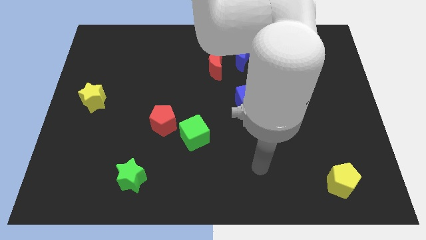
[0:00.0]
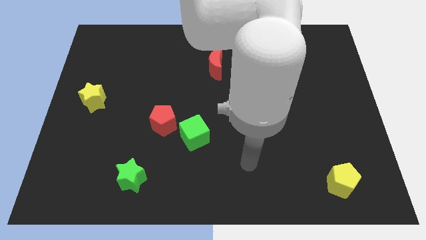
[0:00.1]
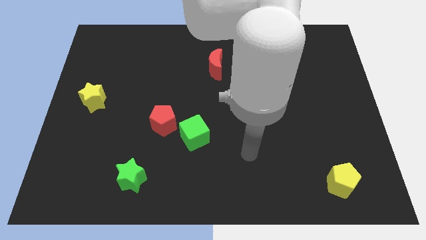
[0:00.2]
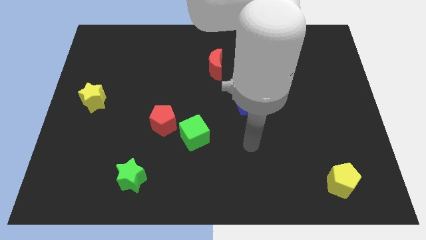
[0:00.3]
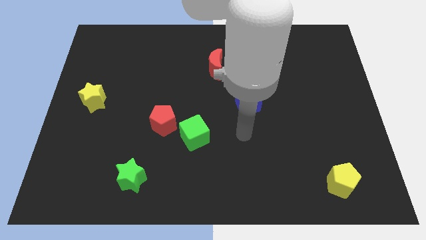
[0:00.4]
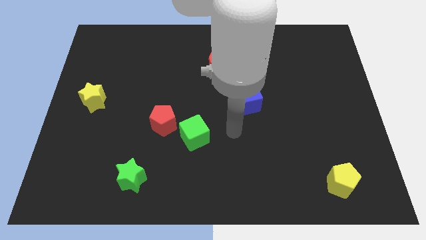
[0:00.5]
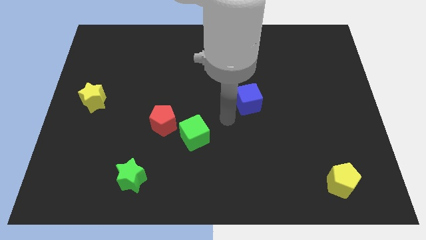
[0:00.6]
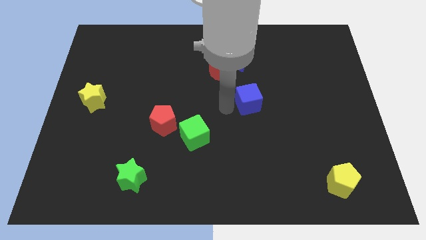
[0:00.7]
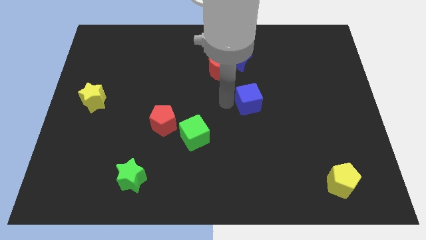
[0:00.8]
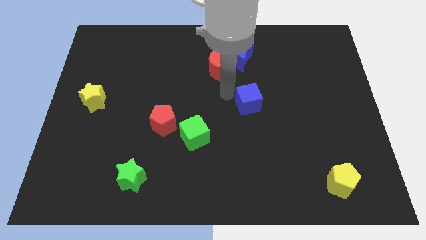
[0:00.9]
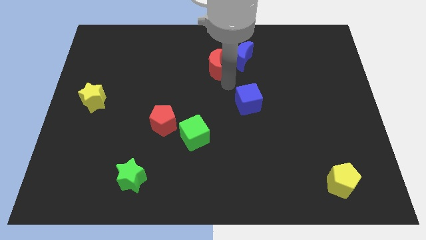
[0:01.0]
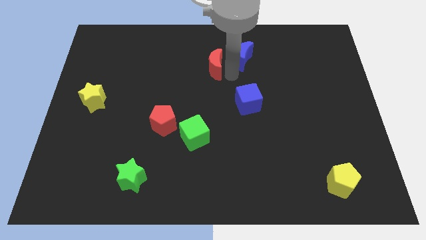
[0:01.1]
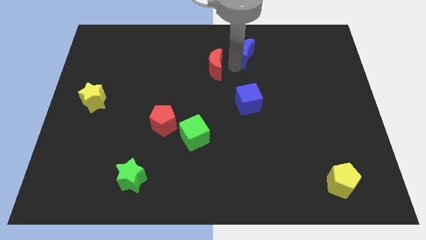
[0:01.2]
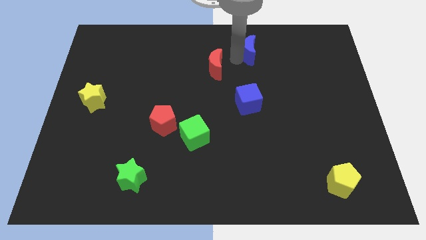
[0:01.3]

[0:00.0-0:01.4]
move the red moon away from the blue moon

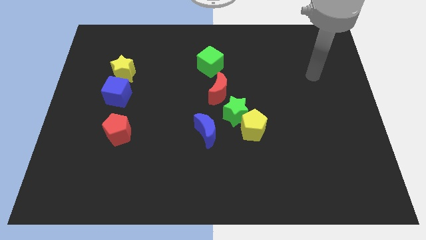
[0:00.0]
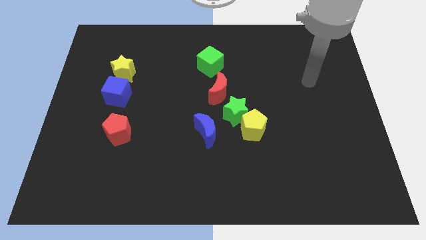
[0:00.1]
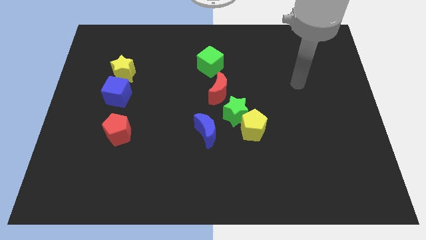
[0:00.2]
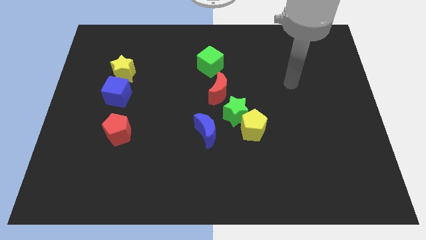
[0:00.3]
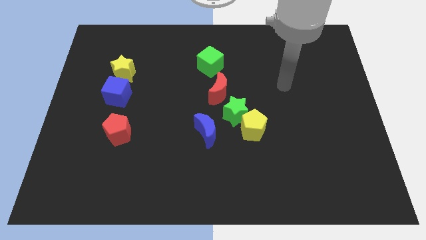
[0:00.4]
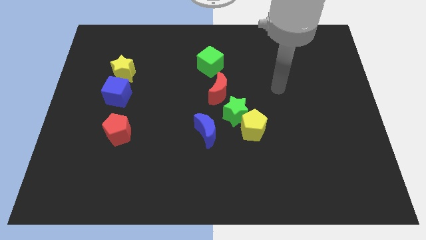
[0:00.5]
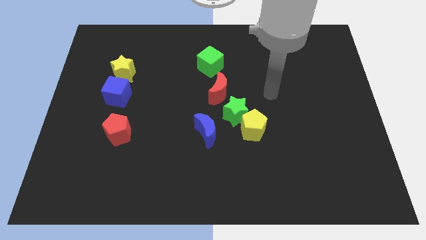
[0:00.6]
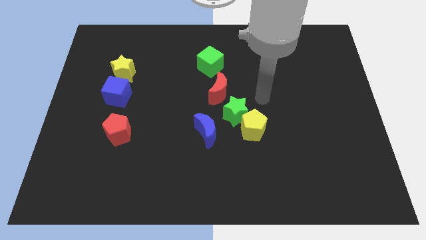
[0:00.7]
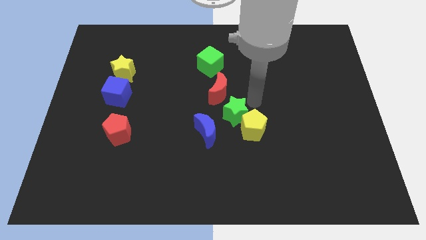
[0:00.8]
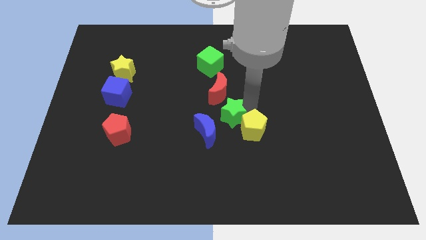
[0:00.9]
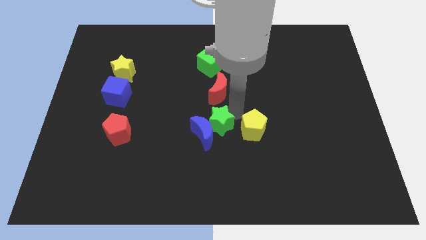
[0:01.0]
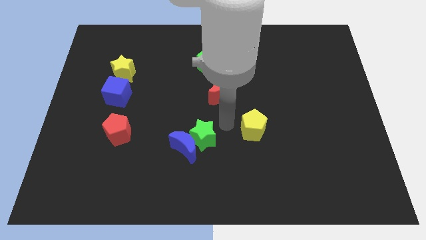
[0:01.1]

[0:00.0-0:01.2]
pull the yellow pentagon apart from the green star

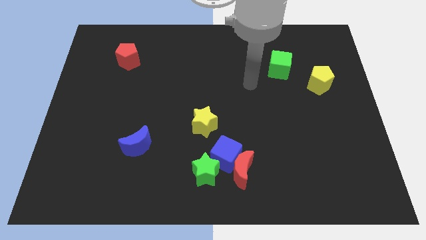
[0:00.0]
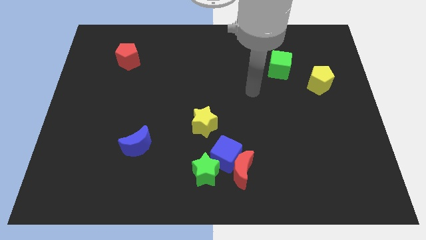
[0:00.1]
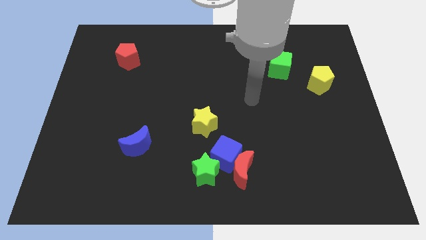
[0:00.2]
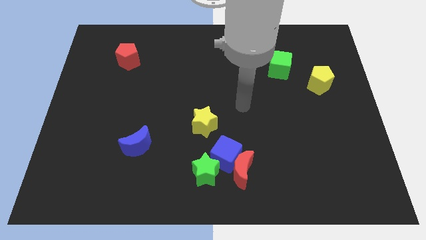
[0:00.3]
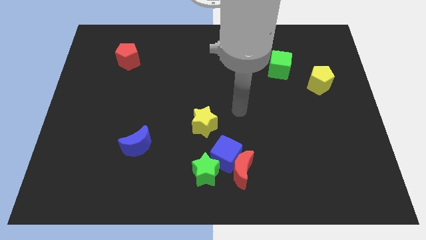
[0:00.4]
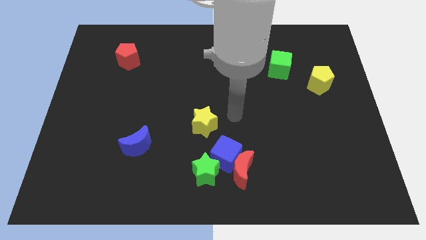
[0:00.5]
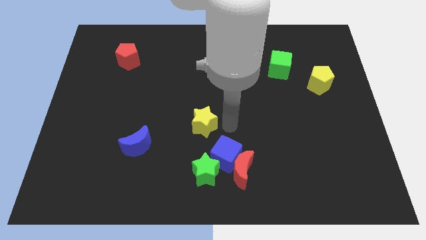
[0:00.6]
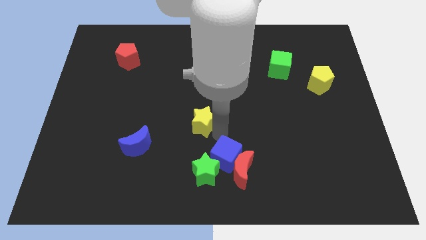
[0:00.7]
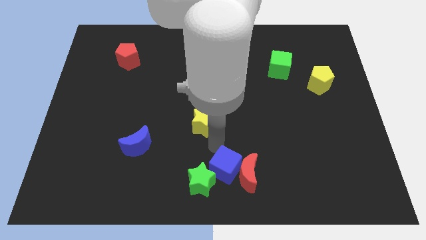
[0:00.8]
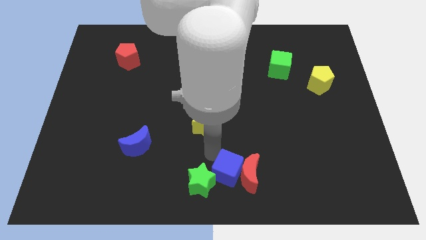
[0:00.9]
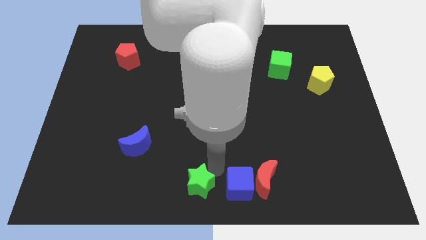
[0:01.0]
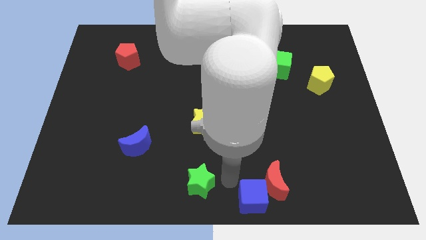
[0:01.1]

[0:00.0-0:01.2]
pull the red moon apart from the blue cube and green star

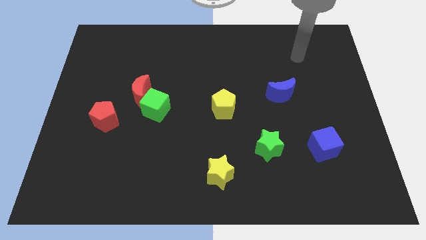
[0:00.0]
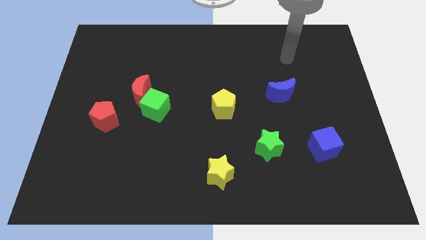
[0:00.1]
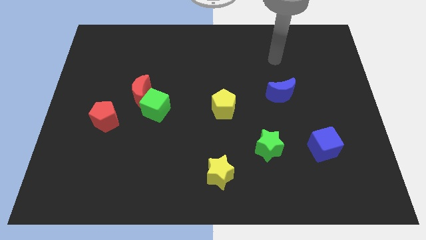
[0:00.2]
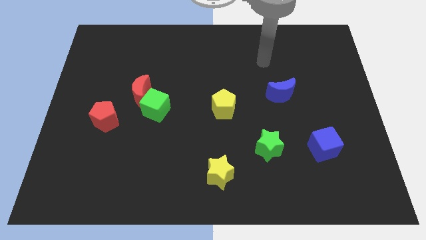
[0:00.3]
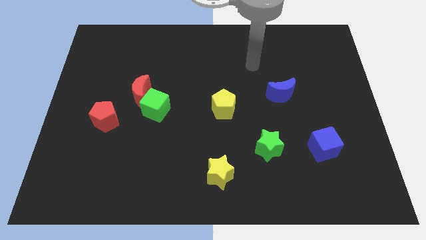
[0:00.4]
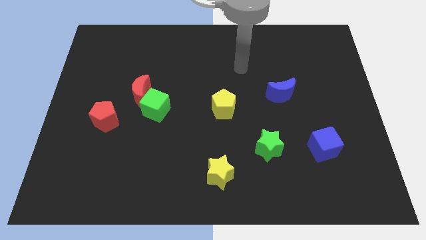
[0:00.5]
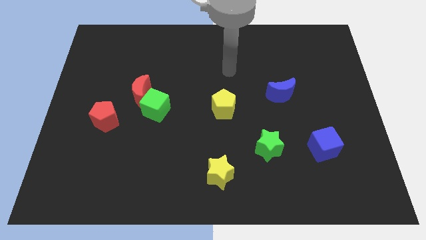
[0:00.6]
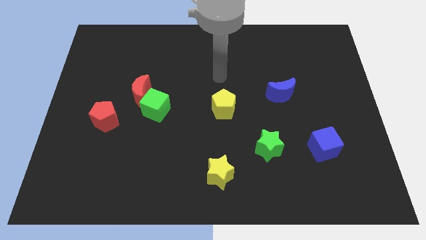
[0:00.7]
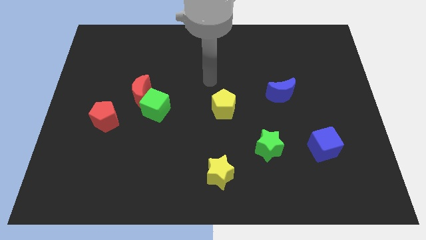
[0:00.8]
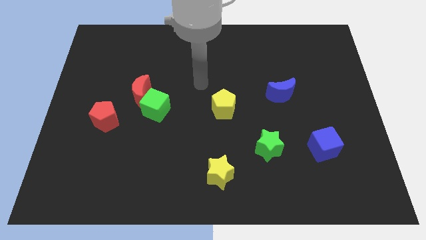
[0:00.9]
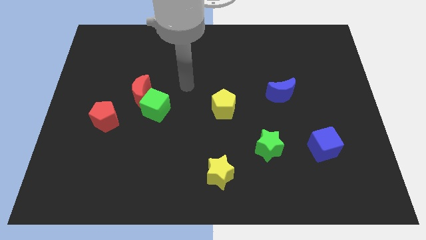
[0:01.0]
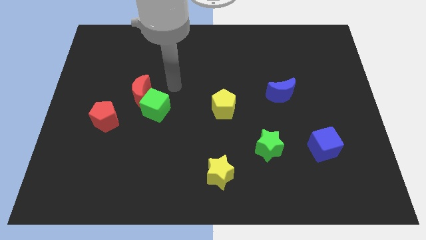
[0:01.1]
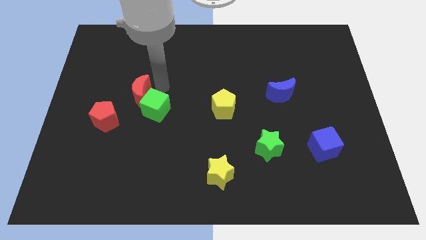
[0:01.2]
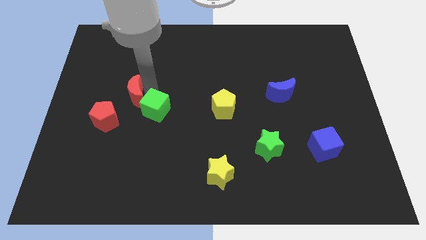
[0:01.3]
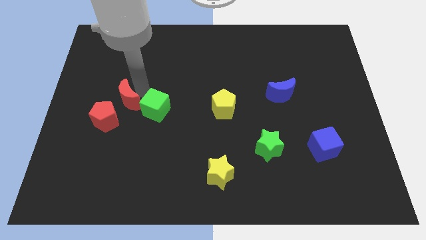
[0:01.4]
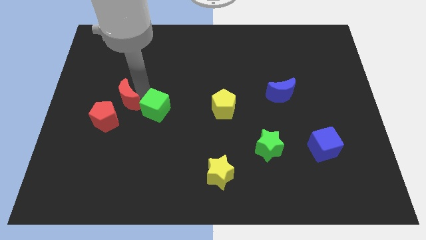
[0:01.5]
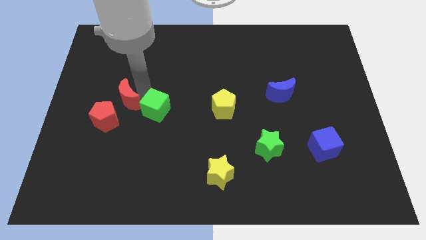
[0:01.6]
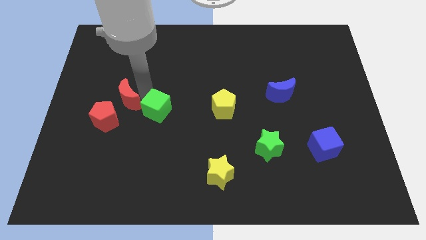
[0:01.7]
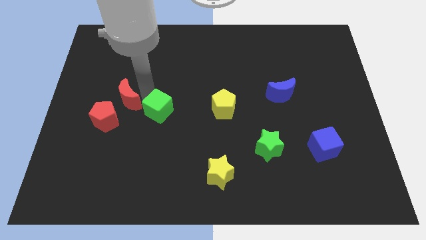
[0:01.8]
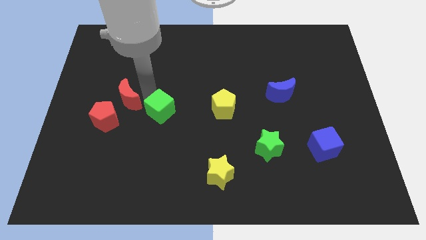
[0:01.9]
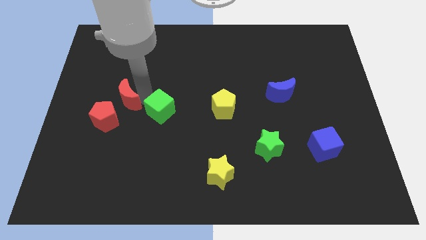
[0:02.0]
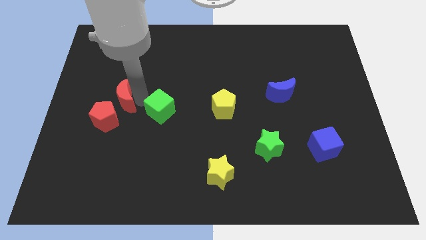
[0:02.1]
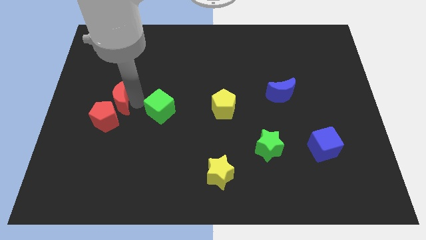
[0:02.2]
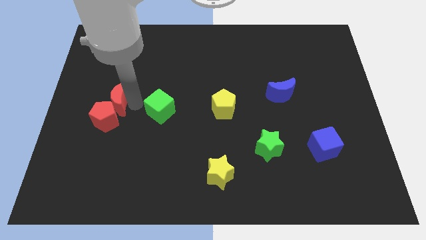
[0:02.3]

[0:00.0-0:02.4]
move the green cube away from the red moon

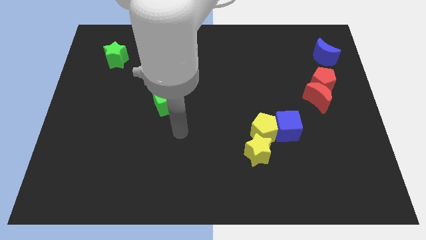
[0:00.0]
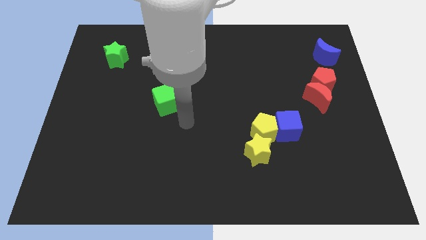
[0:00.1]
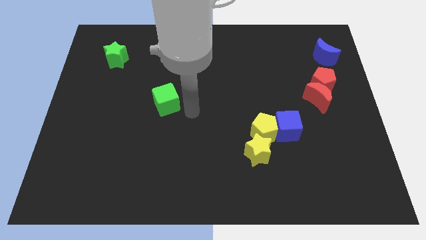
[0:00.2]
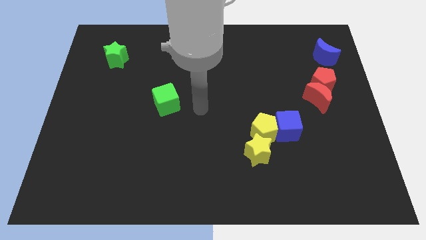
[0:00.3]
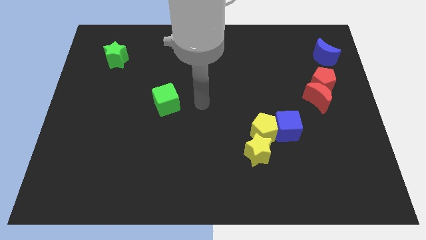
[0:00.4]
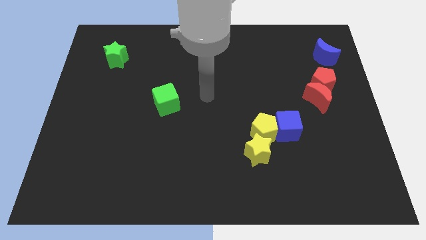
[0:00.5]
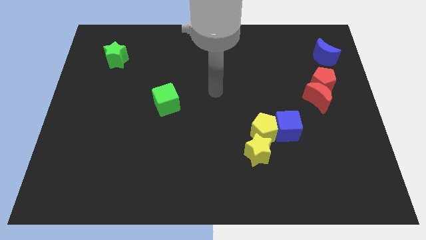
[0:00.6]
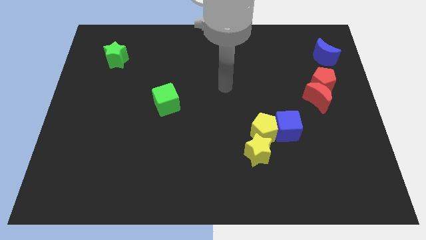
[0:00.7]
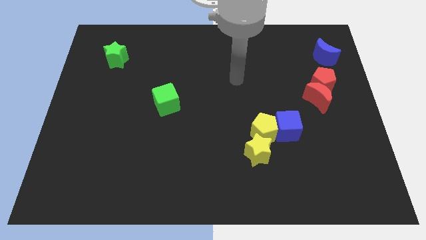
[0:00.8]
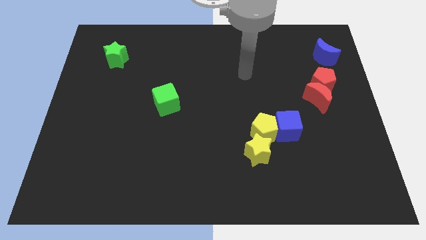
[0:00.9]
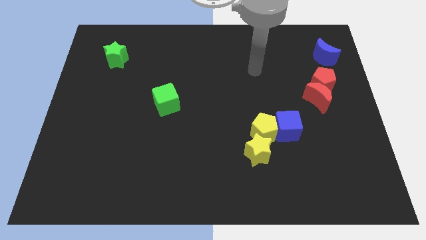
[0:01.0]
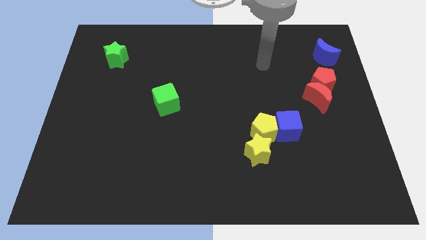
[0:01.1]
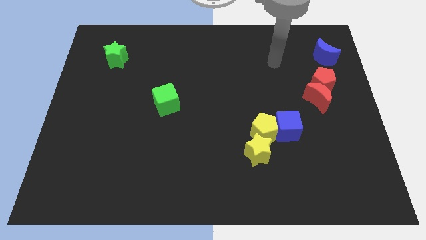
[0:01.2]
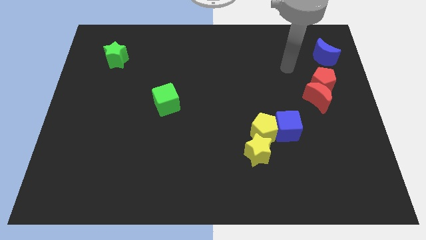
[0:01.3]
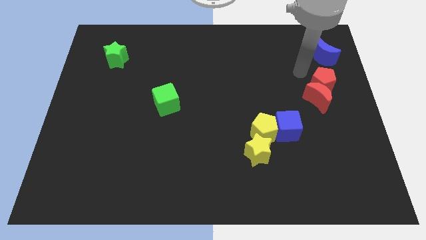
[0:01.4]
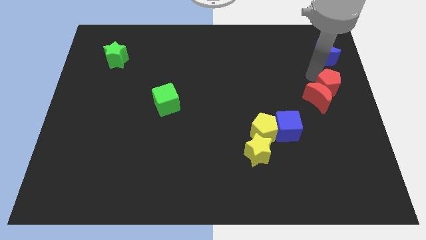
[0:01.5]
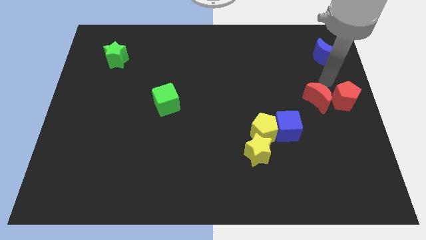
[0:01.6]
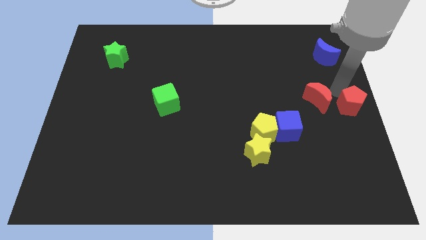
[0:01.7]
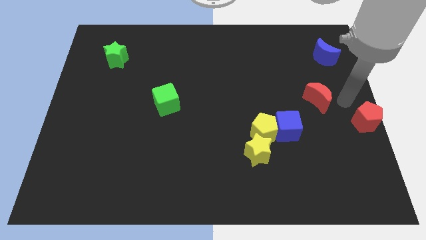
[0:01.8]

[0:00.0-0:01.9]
separate the red moon from the red pentagon

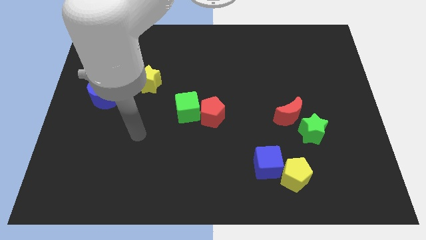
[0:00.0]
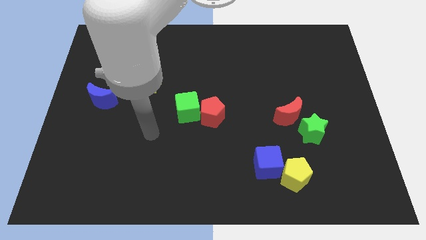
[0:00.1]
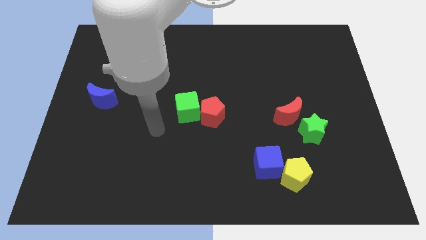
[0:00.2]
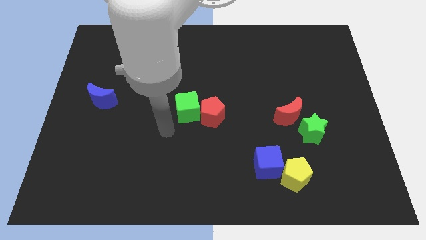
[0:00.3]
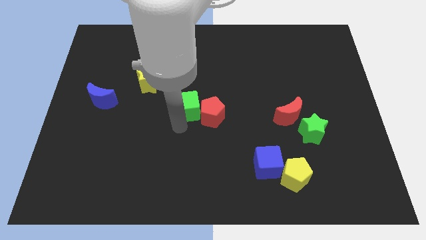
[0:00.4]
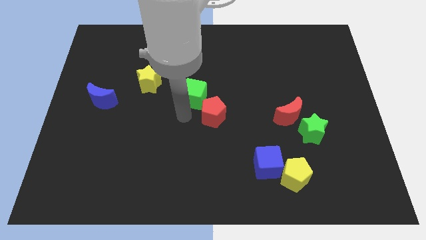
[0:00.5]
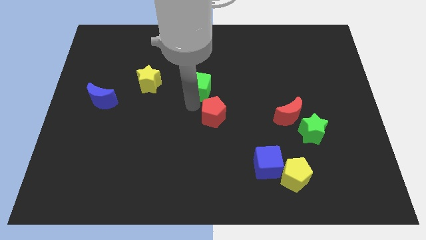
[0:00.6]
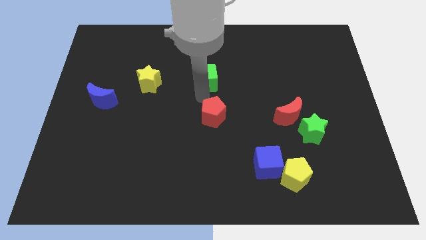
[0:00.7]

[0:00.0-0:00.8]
separate the red pentagon from the green cube

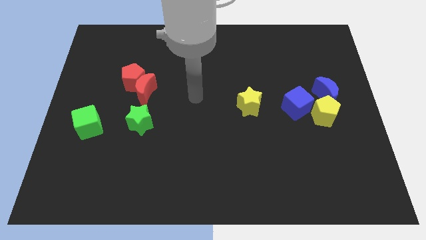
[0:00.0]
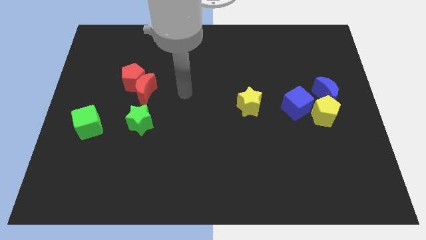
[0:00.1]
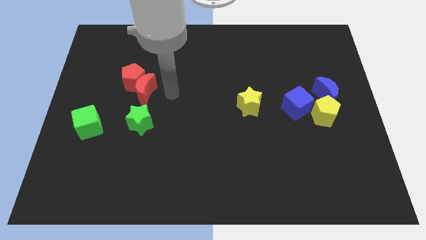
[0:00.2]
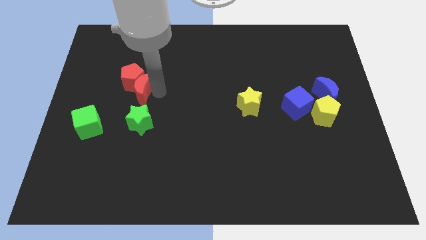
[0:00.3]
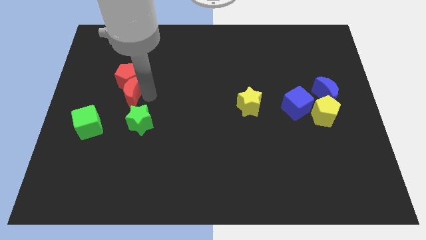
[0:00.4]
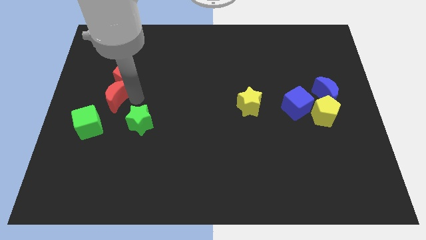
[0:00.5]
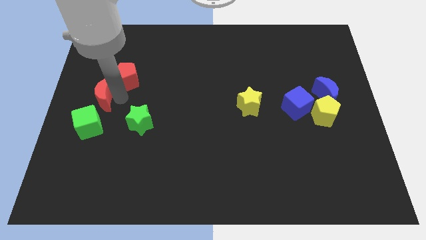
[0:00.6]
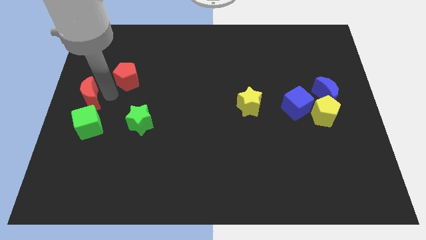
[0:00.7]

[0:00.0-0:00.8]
move the red pentagon away from the red moon
